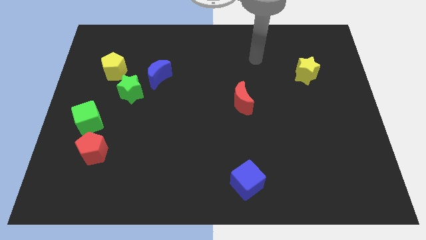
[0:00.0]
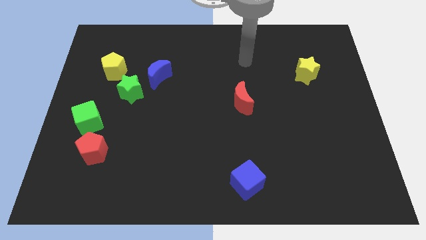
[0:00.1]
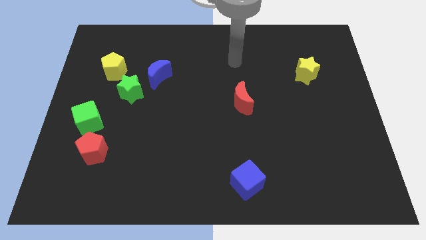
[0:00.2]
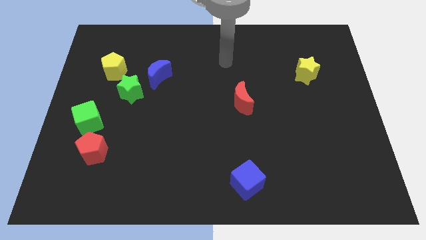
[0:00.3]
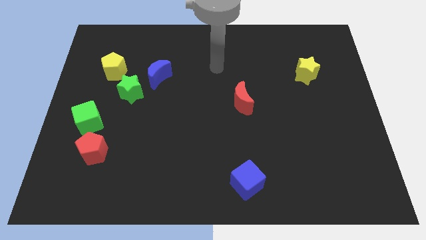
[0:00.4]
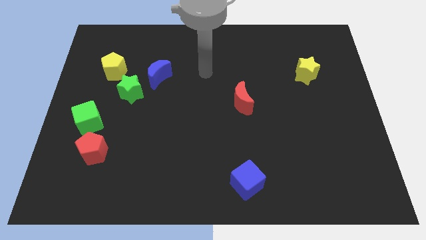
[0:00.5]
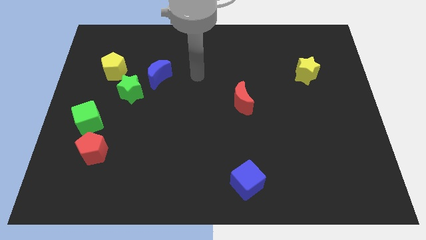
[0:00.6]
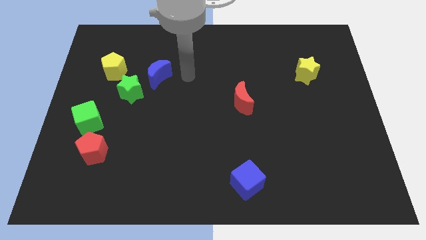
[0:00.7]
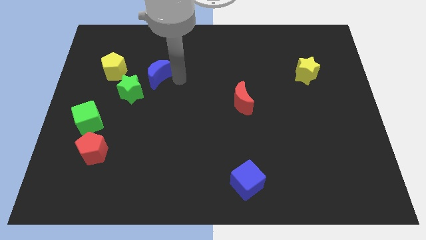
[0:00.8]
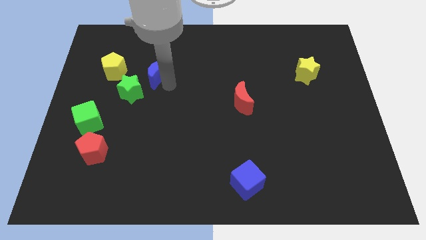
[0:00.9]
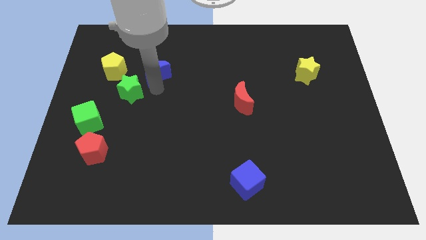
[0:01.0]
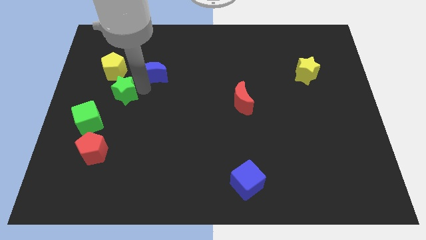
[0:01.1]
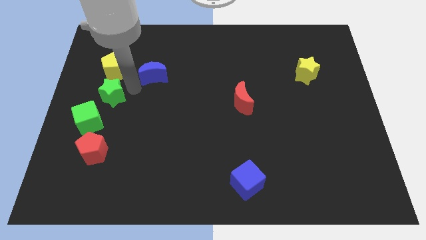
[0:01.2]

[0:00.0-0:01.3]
pull the blue moon apart from the green star

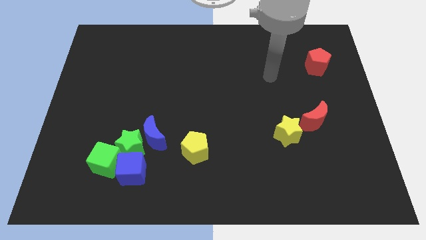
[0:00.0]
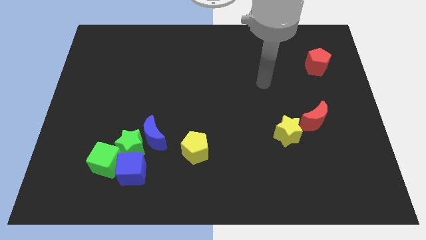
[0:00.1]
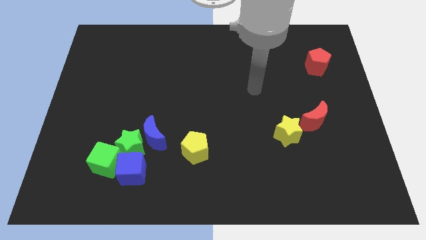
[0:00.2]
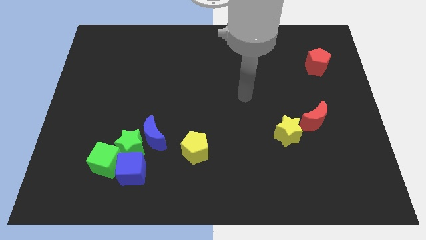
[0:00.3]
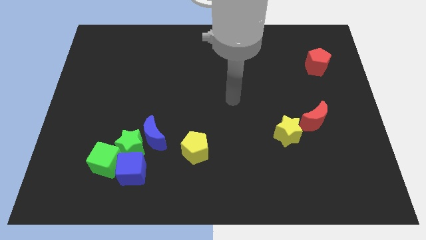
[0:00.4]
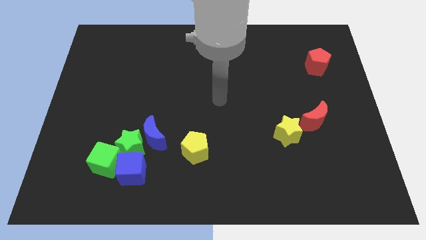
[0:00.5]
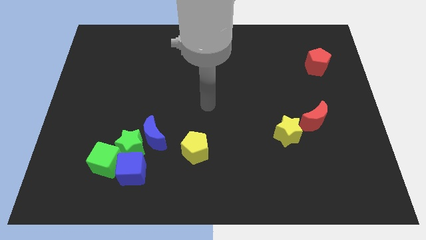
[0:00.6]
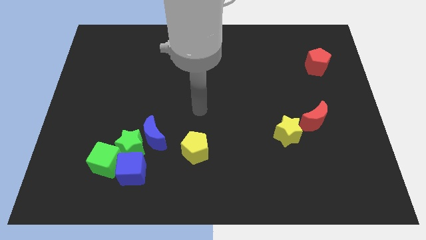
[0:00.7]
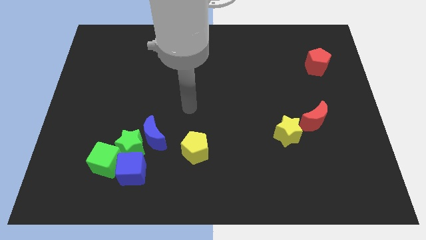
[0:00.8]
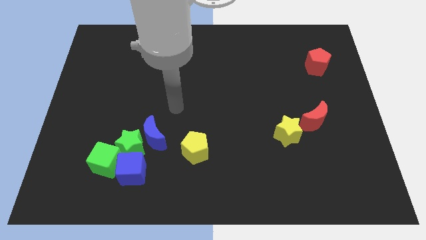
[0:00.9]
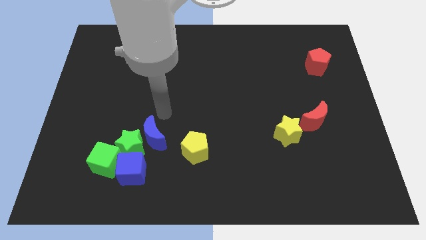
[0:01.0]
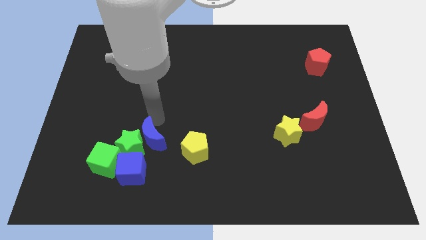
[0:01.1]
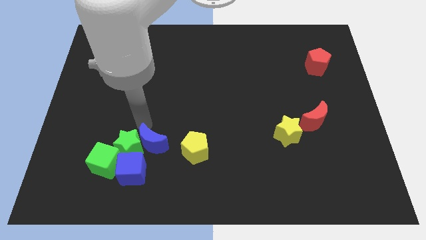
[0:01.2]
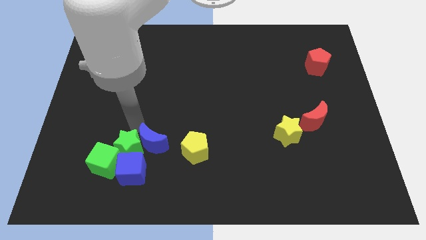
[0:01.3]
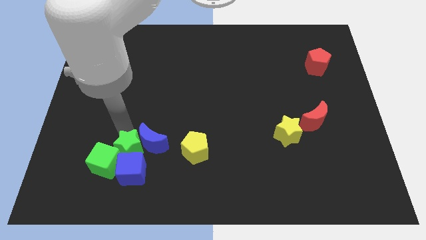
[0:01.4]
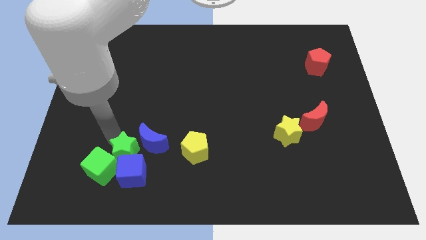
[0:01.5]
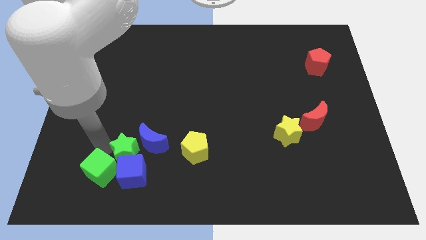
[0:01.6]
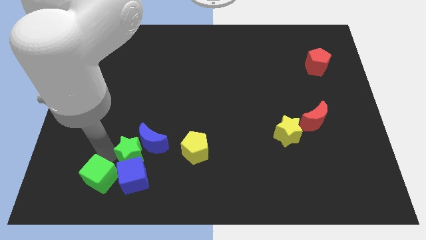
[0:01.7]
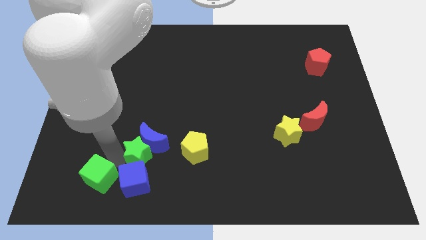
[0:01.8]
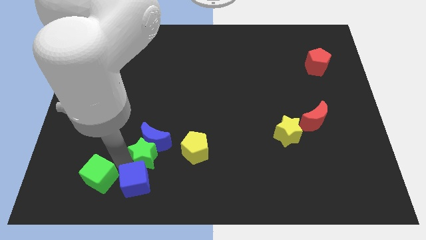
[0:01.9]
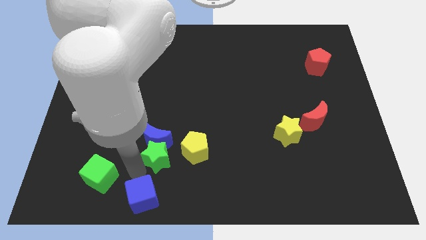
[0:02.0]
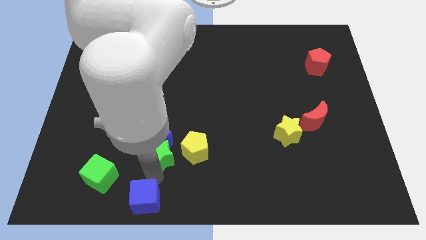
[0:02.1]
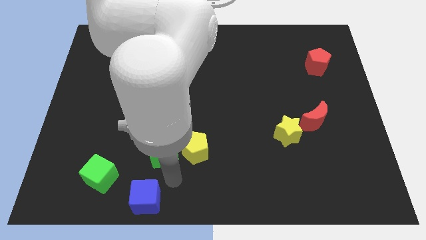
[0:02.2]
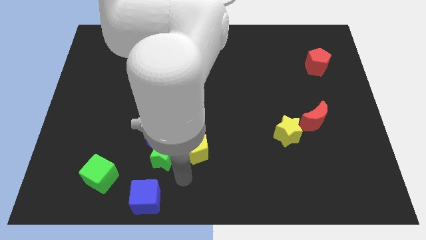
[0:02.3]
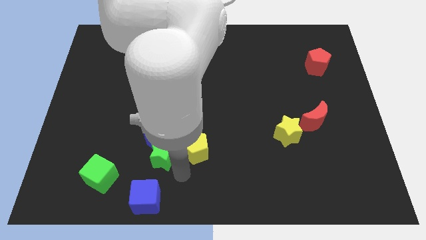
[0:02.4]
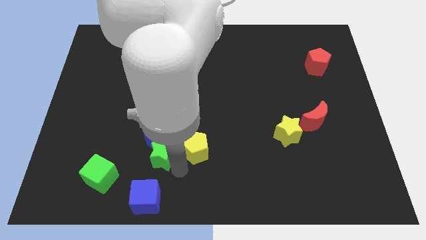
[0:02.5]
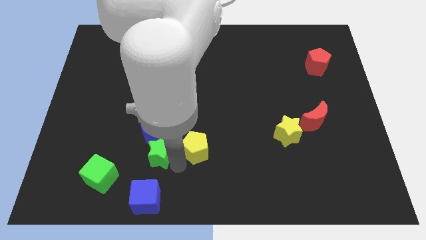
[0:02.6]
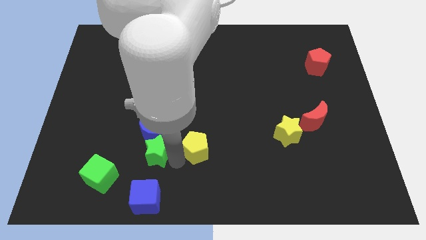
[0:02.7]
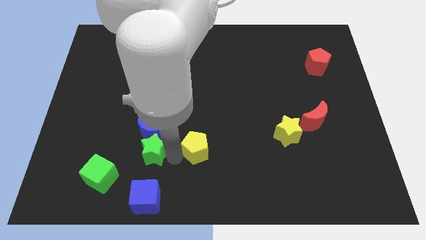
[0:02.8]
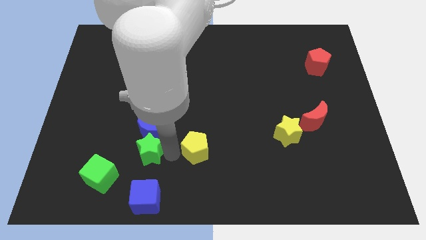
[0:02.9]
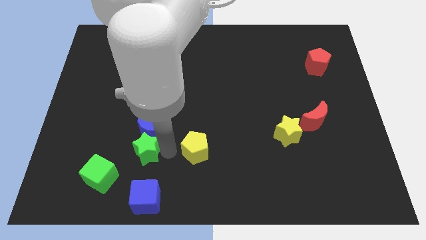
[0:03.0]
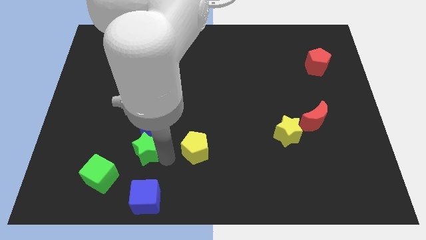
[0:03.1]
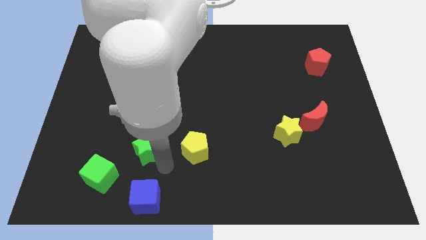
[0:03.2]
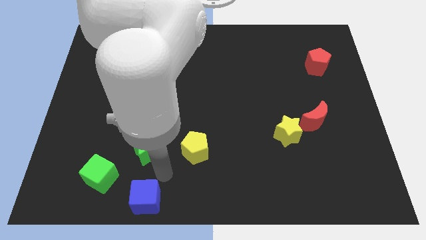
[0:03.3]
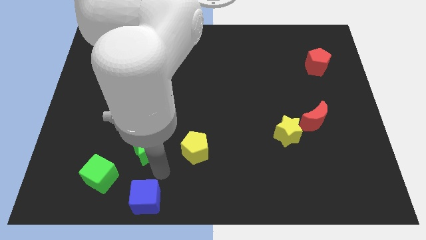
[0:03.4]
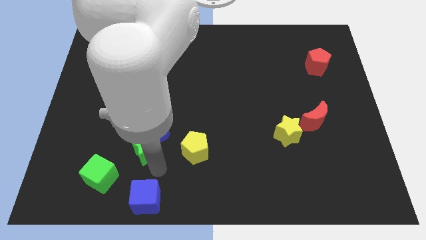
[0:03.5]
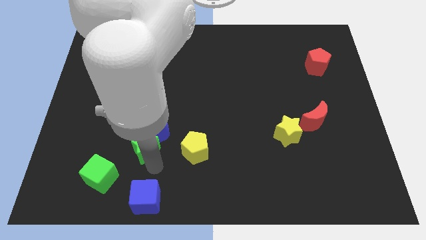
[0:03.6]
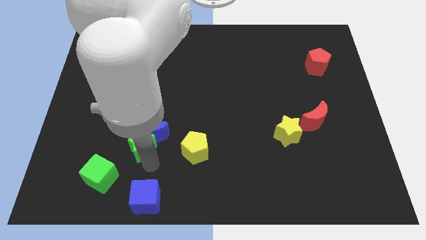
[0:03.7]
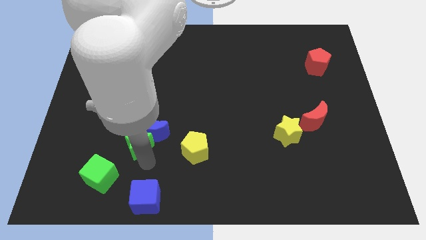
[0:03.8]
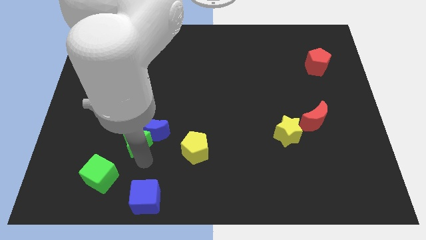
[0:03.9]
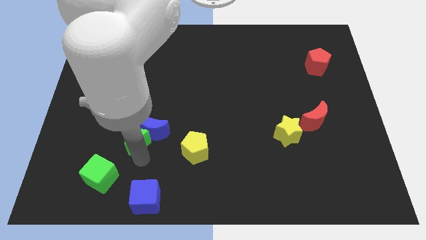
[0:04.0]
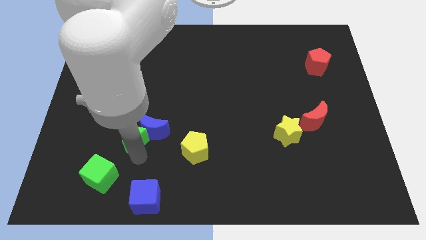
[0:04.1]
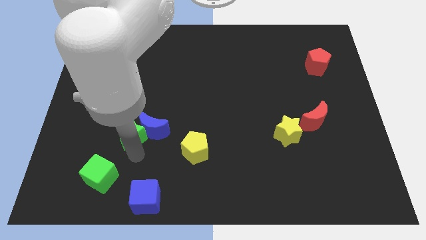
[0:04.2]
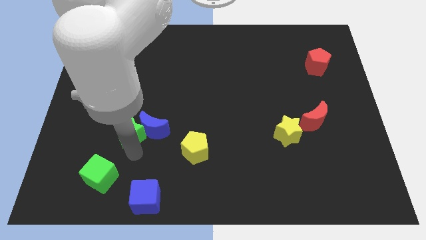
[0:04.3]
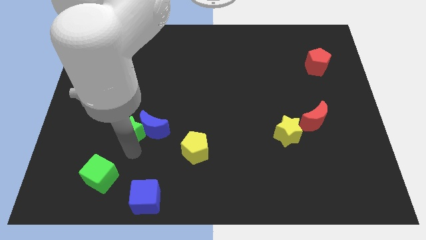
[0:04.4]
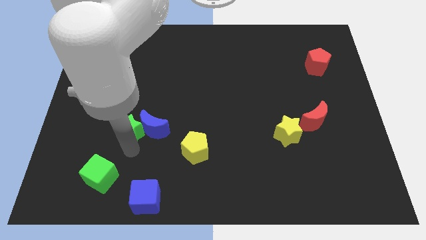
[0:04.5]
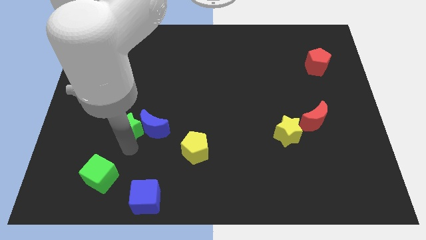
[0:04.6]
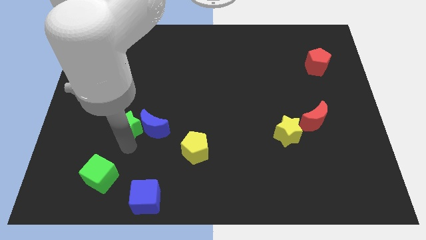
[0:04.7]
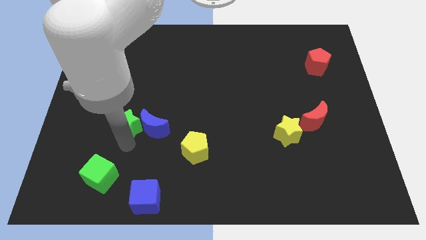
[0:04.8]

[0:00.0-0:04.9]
move the green star away from the blue moon, blue cube, and green cube

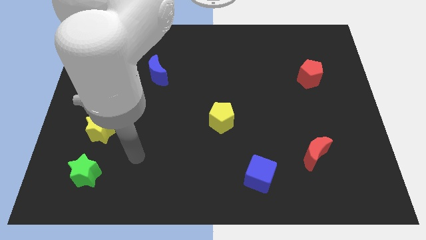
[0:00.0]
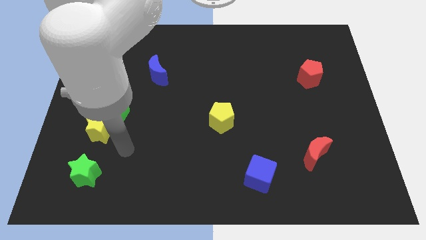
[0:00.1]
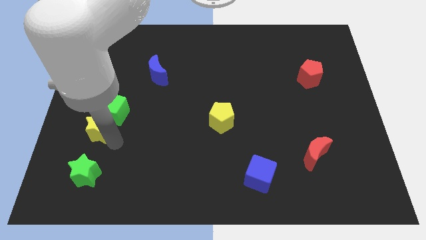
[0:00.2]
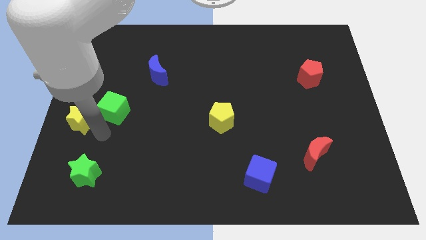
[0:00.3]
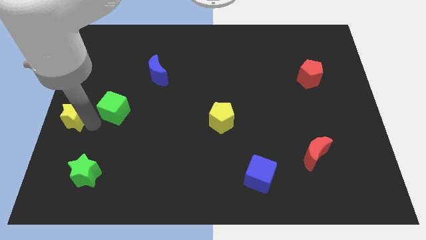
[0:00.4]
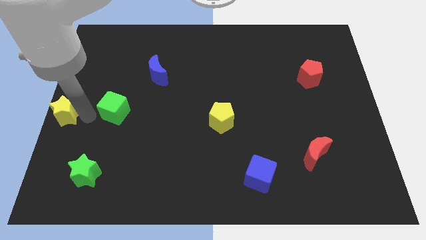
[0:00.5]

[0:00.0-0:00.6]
separate the green cube from the yellow star

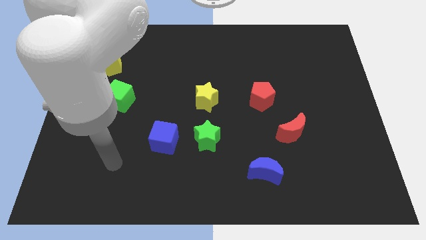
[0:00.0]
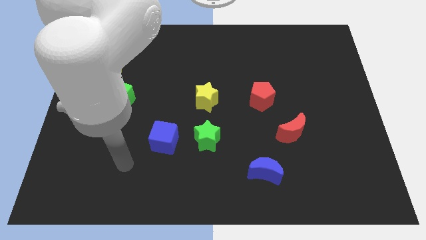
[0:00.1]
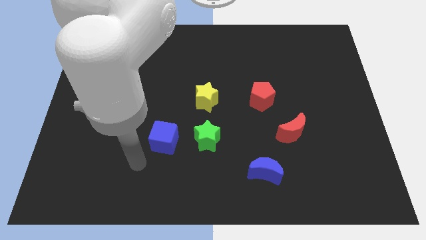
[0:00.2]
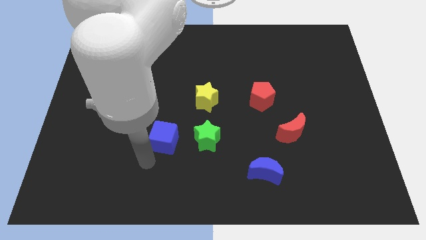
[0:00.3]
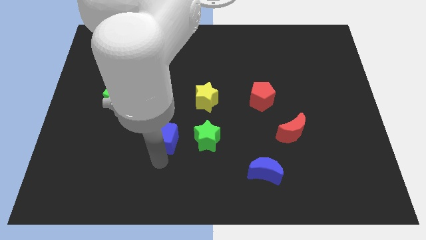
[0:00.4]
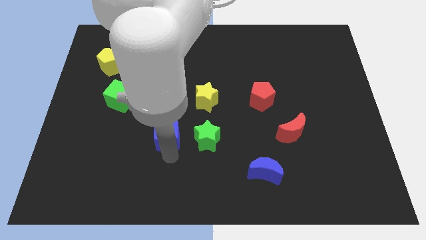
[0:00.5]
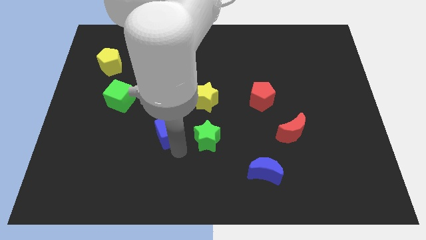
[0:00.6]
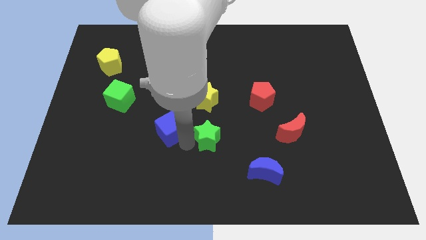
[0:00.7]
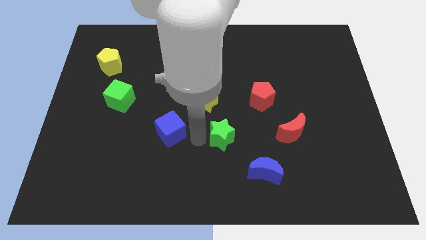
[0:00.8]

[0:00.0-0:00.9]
pull the blue cube apart from the green star

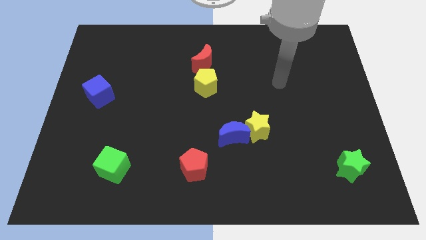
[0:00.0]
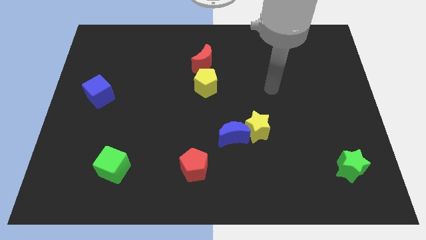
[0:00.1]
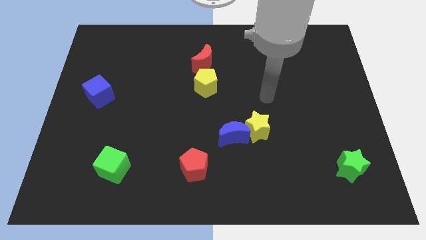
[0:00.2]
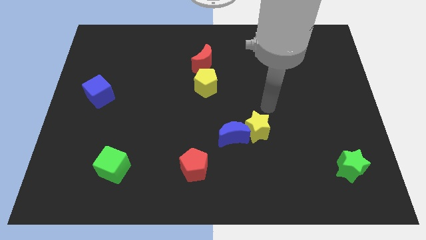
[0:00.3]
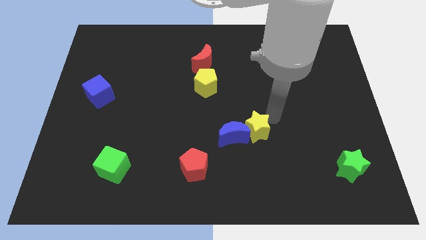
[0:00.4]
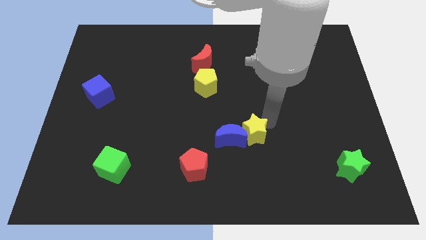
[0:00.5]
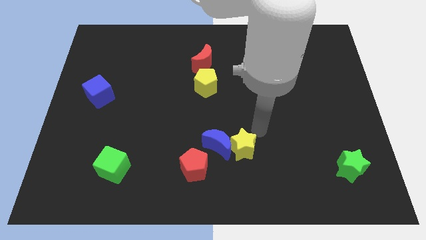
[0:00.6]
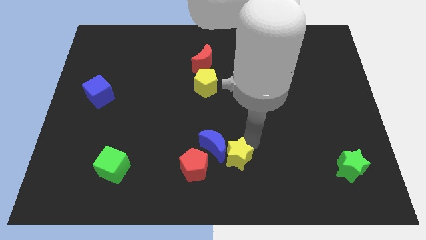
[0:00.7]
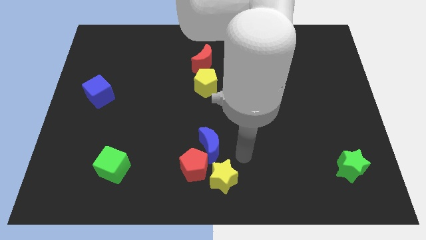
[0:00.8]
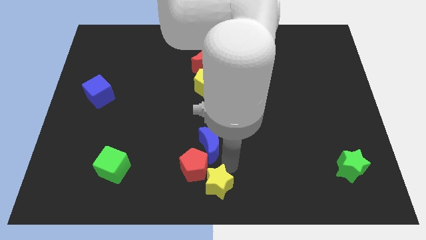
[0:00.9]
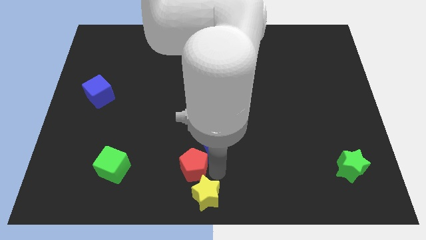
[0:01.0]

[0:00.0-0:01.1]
pull the blue moon apart from the yellow star

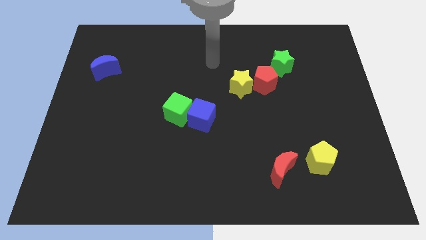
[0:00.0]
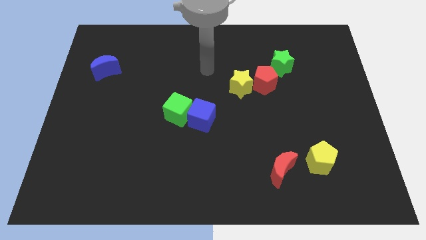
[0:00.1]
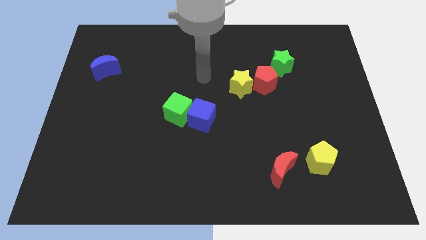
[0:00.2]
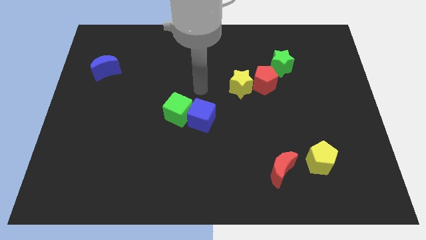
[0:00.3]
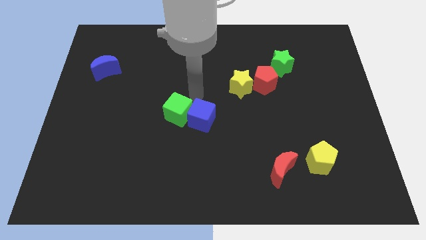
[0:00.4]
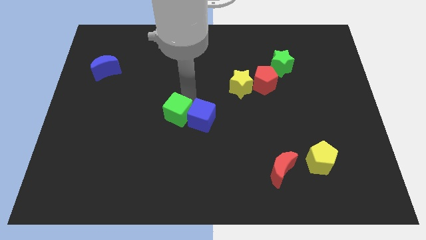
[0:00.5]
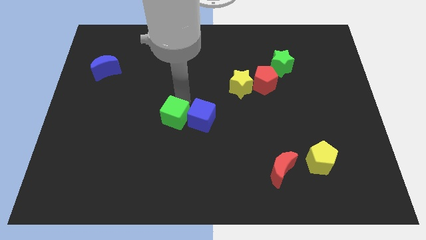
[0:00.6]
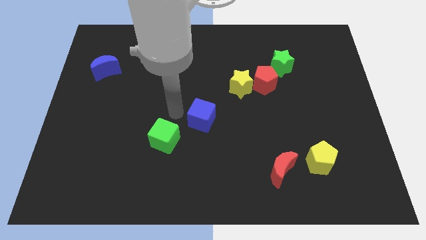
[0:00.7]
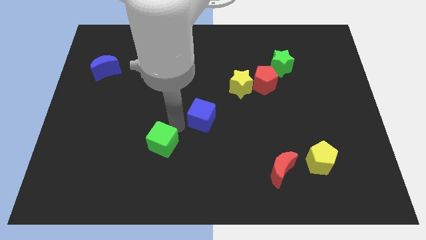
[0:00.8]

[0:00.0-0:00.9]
pull the blue cube apart from the green cube
